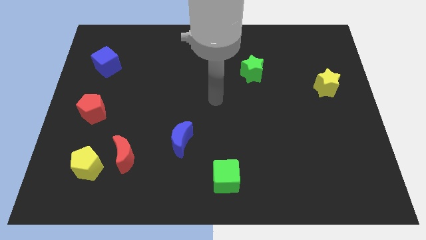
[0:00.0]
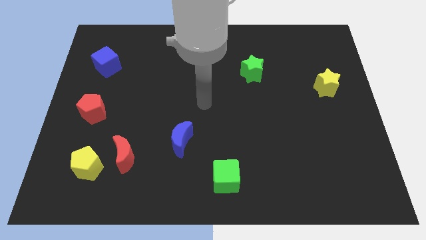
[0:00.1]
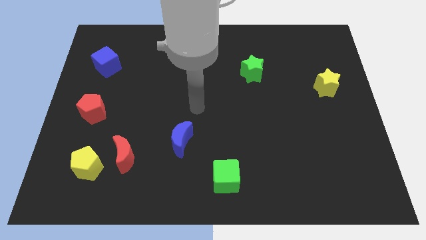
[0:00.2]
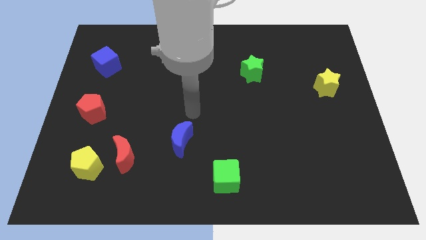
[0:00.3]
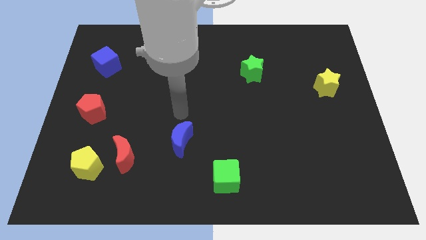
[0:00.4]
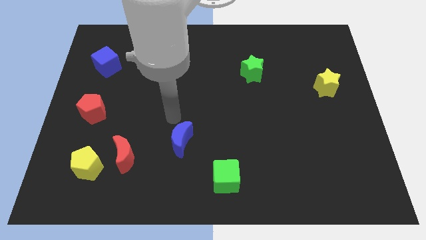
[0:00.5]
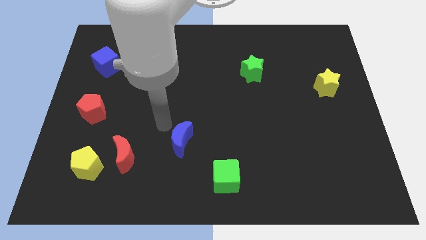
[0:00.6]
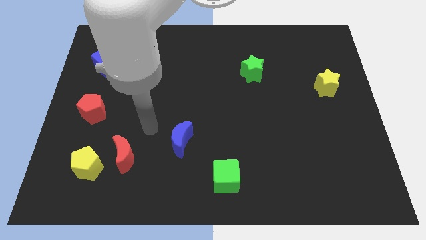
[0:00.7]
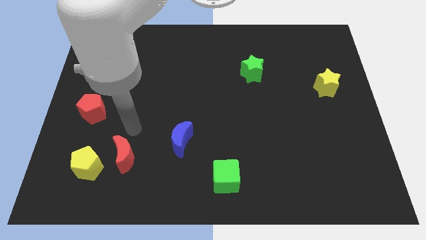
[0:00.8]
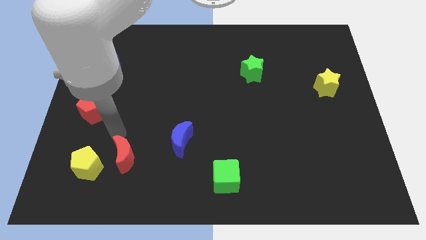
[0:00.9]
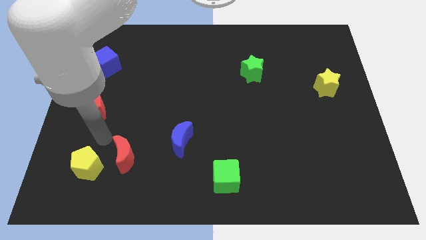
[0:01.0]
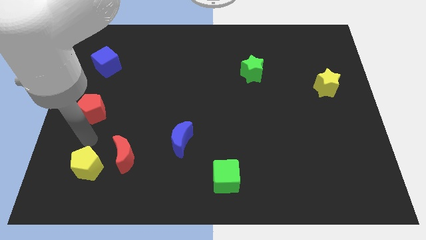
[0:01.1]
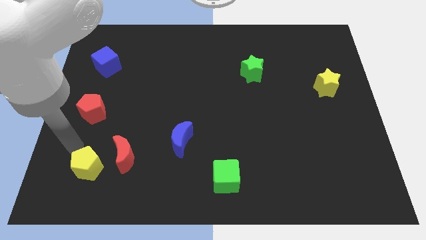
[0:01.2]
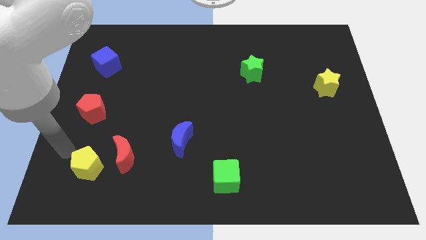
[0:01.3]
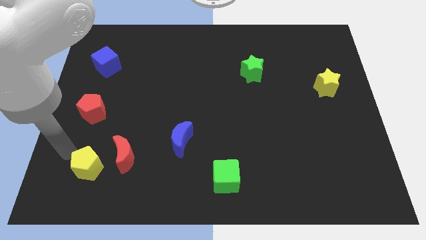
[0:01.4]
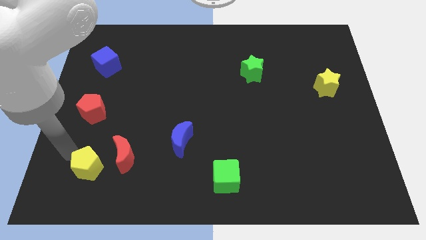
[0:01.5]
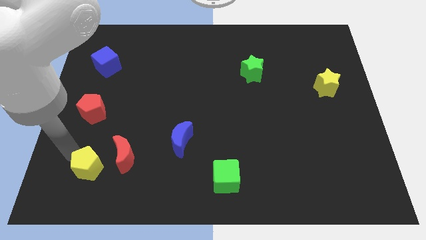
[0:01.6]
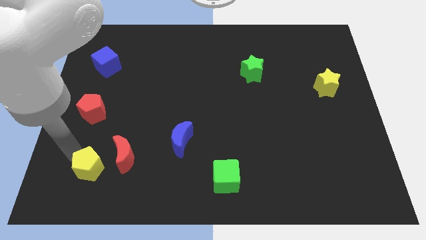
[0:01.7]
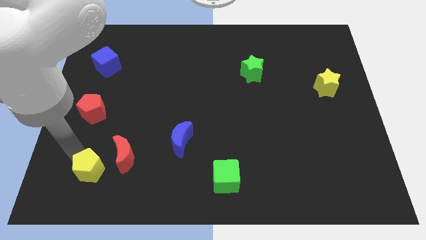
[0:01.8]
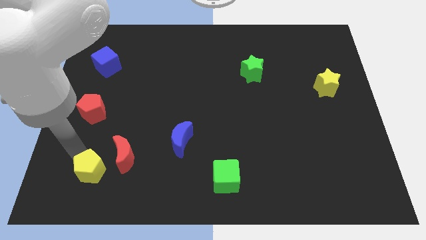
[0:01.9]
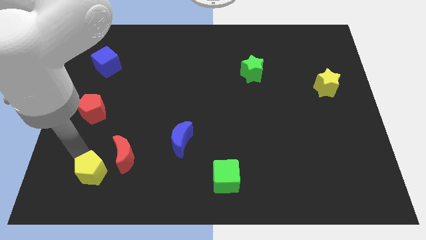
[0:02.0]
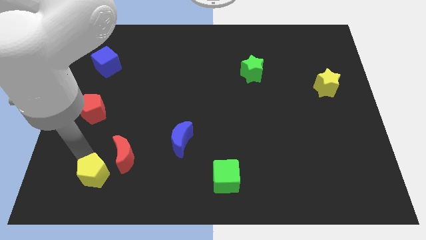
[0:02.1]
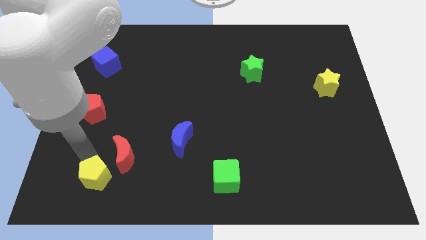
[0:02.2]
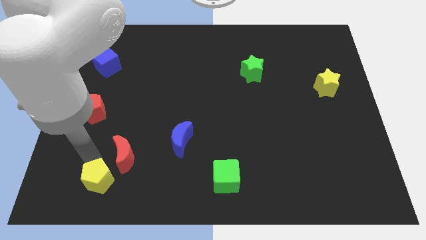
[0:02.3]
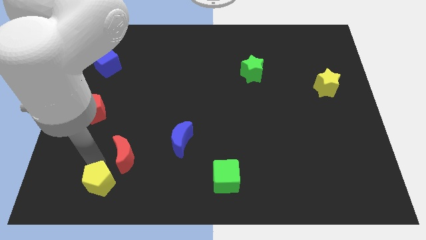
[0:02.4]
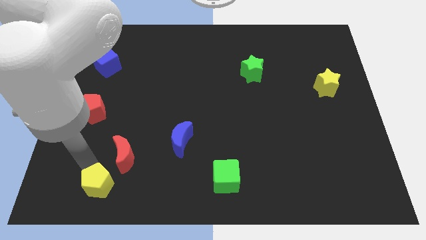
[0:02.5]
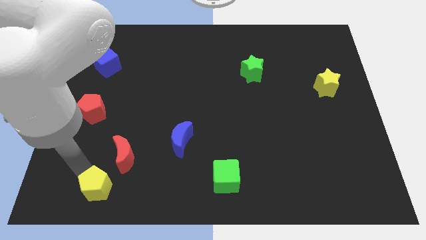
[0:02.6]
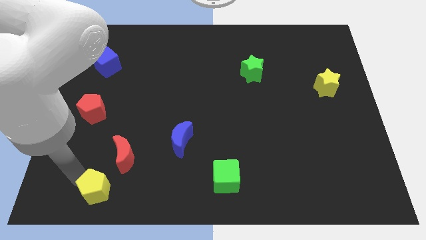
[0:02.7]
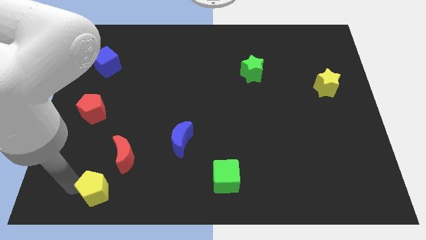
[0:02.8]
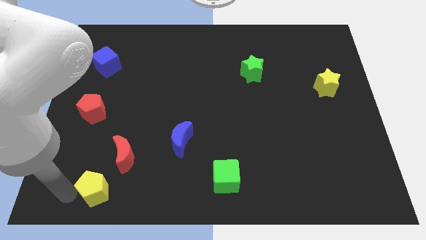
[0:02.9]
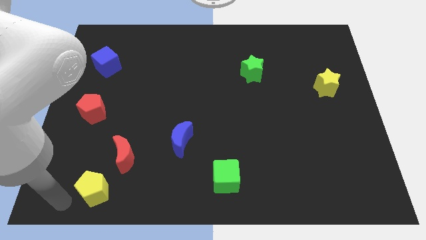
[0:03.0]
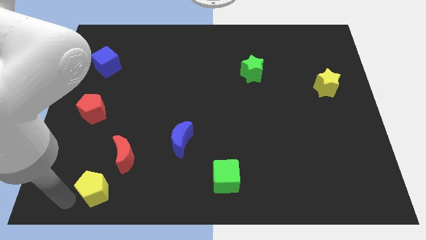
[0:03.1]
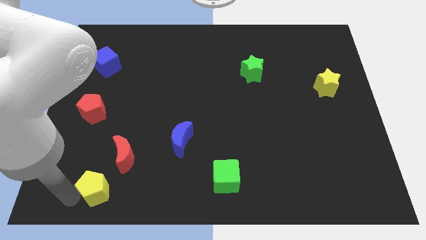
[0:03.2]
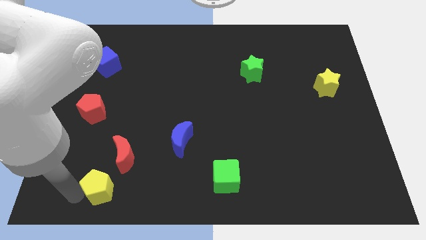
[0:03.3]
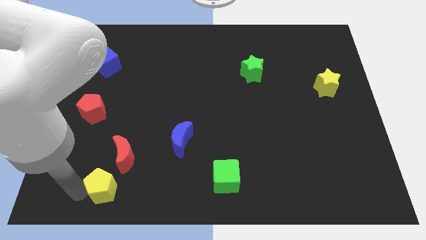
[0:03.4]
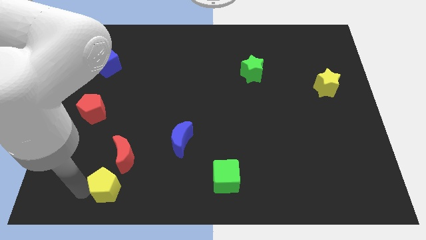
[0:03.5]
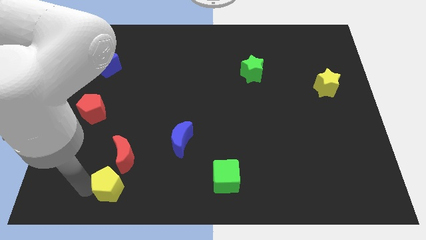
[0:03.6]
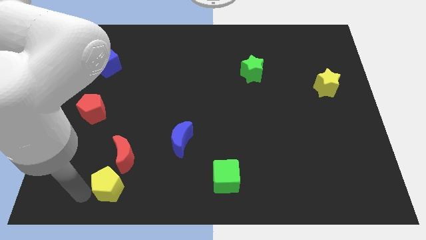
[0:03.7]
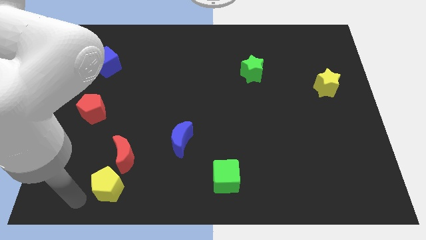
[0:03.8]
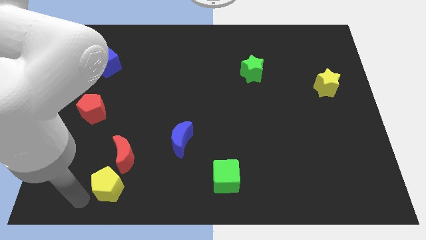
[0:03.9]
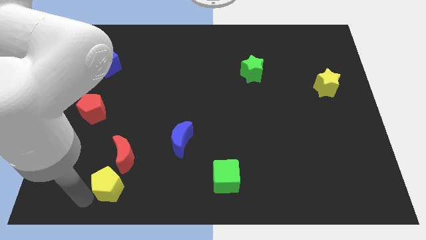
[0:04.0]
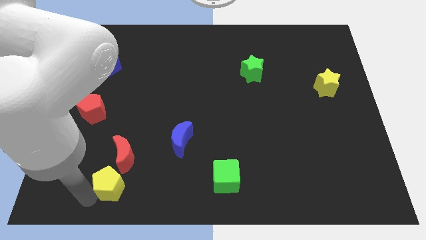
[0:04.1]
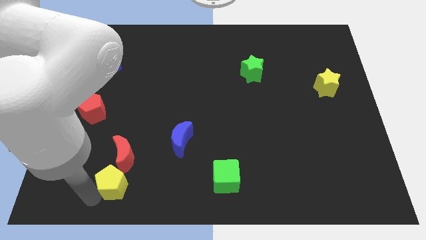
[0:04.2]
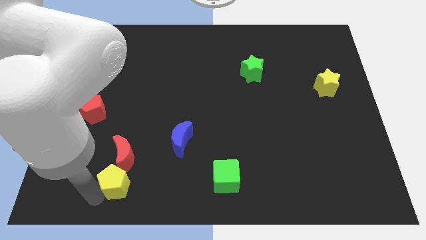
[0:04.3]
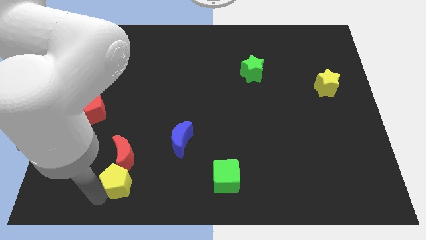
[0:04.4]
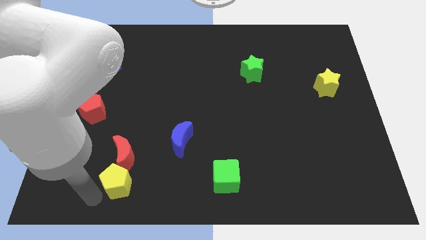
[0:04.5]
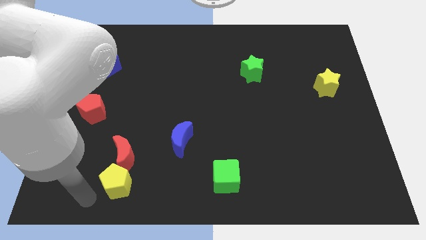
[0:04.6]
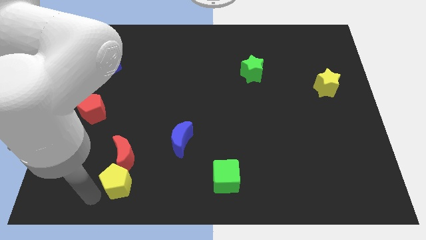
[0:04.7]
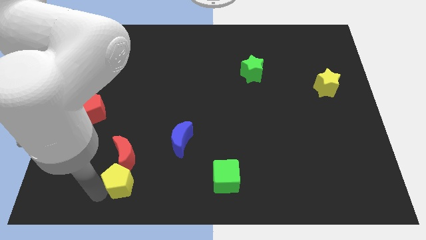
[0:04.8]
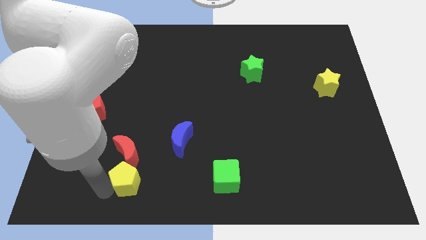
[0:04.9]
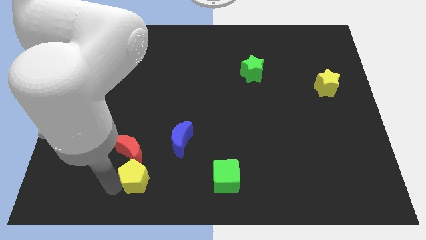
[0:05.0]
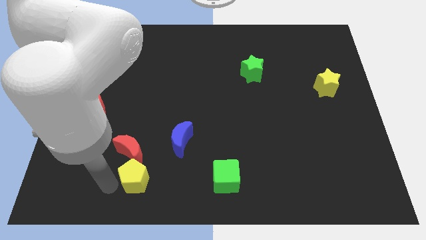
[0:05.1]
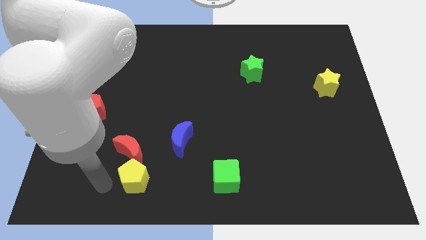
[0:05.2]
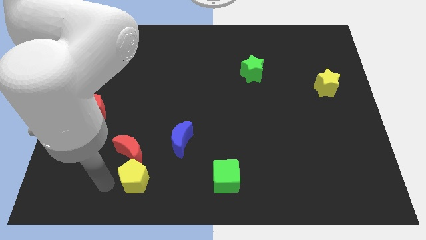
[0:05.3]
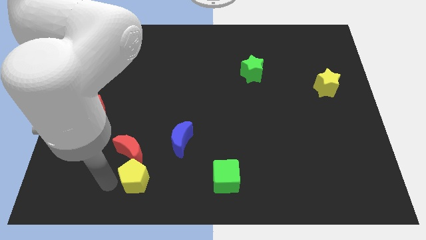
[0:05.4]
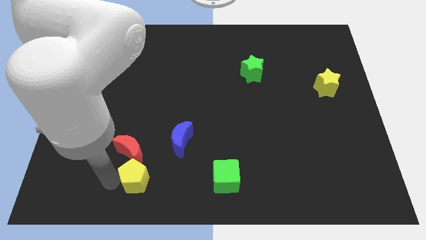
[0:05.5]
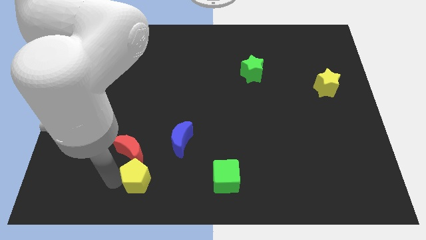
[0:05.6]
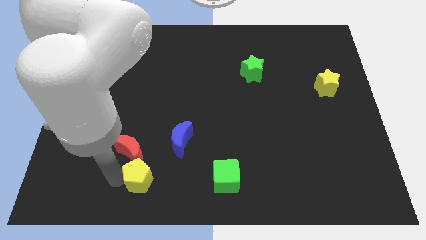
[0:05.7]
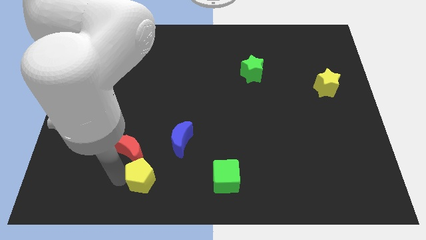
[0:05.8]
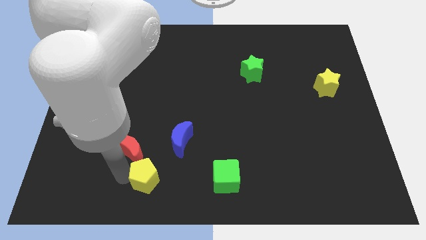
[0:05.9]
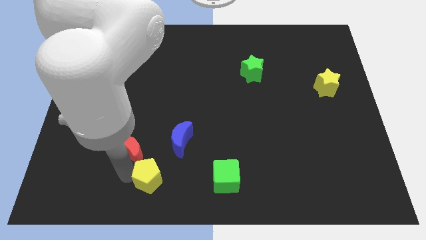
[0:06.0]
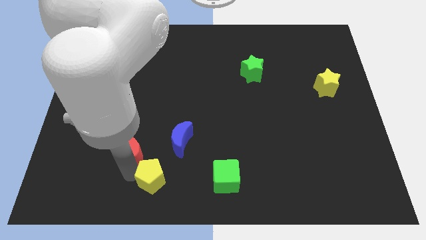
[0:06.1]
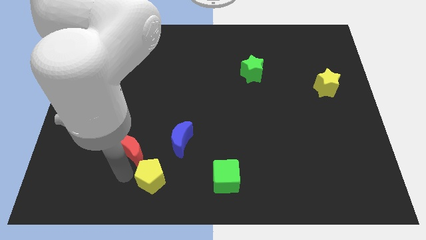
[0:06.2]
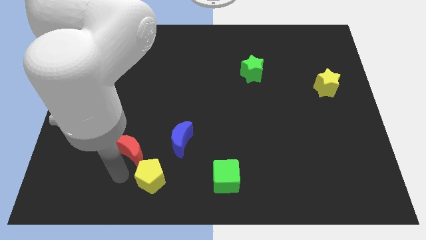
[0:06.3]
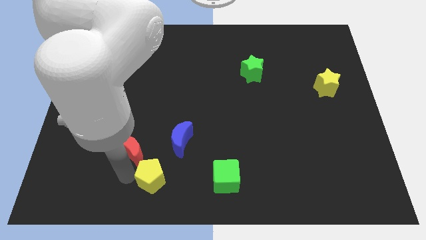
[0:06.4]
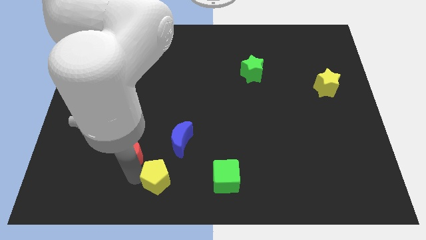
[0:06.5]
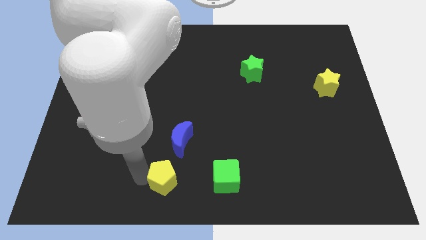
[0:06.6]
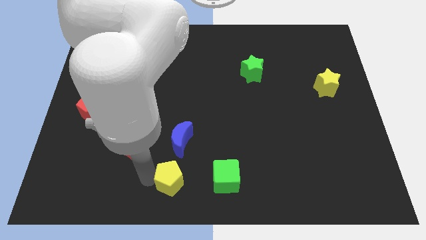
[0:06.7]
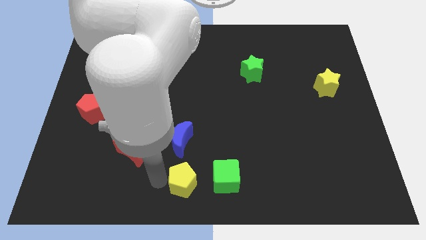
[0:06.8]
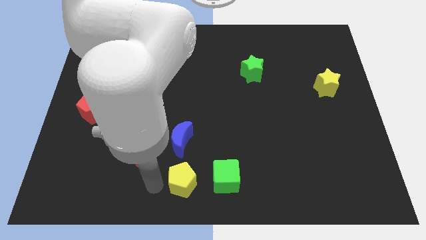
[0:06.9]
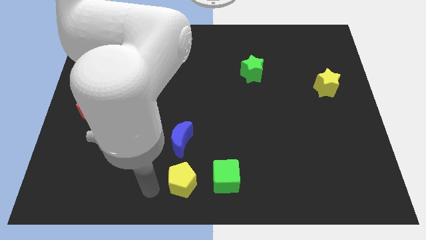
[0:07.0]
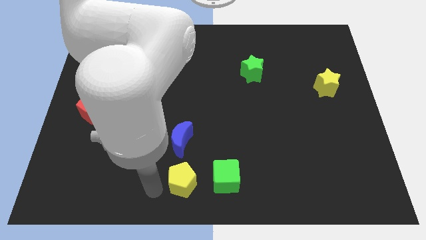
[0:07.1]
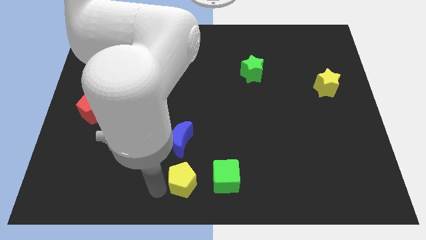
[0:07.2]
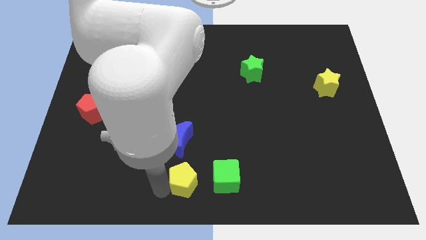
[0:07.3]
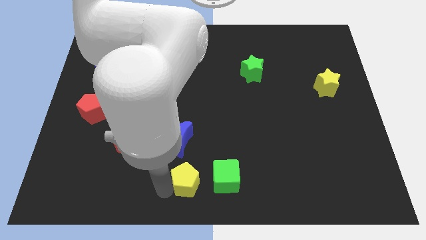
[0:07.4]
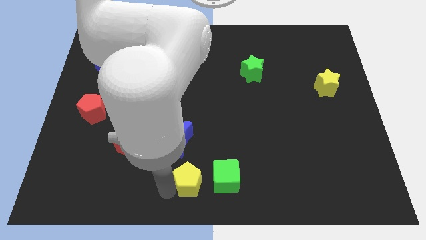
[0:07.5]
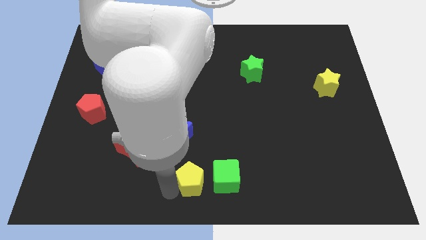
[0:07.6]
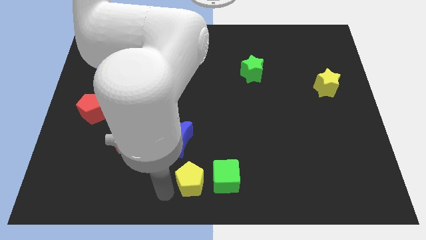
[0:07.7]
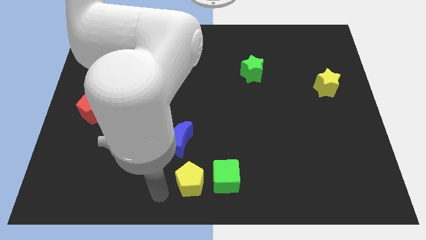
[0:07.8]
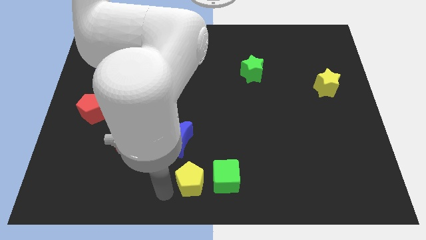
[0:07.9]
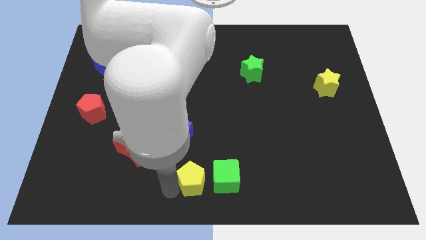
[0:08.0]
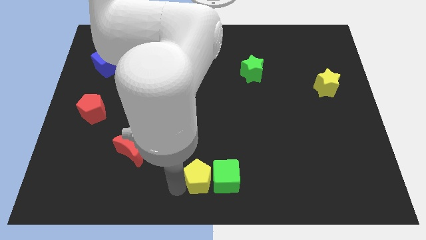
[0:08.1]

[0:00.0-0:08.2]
slide the yellow pentagon to the green cube
